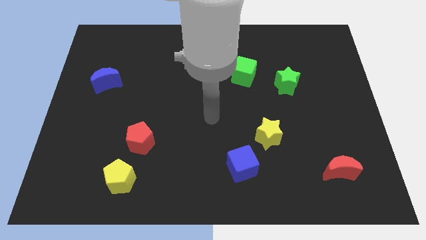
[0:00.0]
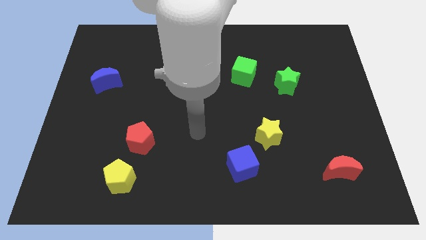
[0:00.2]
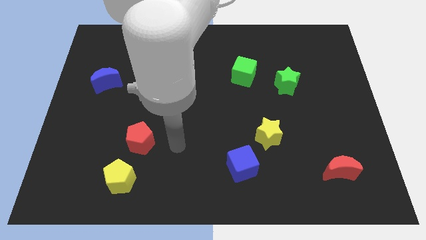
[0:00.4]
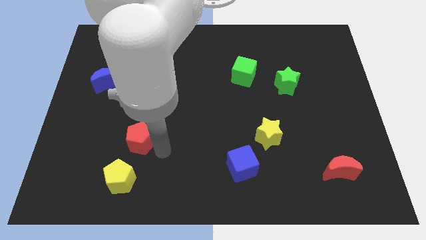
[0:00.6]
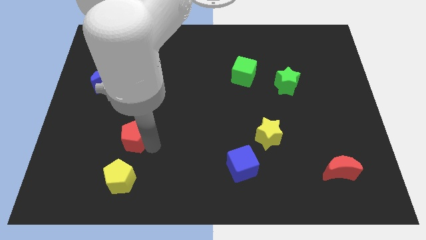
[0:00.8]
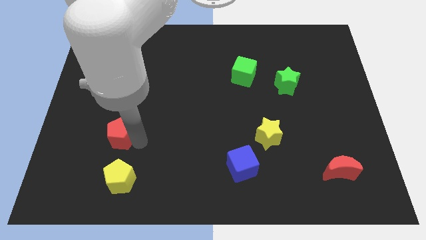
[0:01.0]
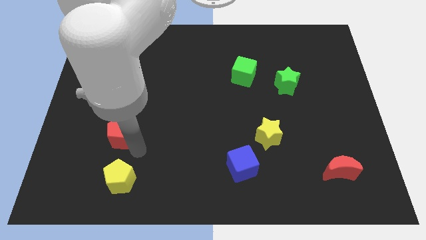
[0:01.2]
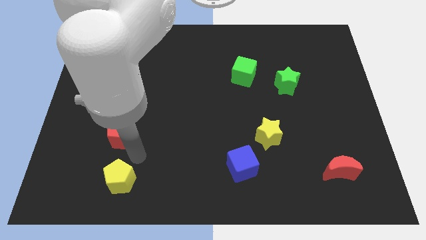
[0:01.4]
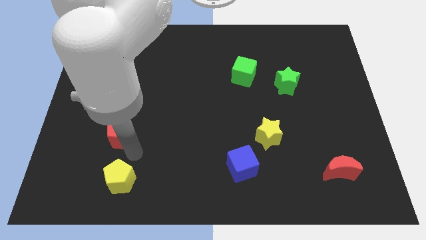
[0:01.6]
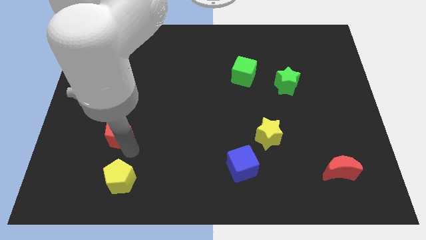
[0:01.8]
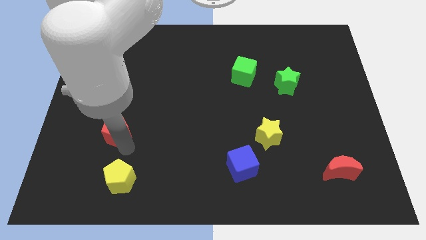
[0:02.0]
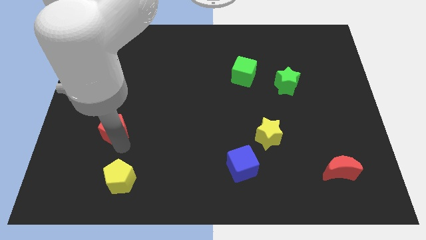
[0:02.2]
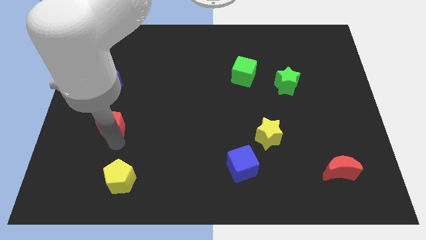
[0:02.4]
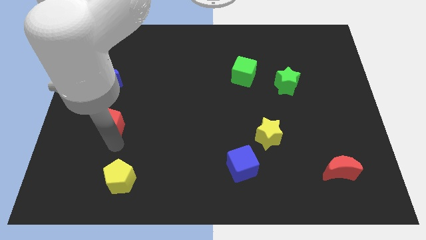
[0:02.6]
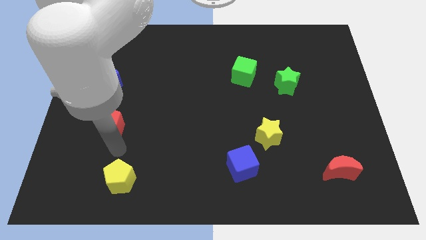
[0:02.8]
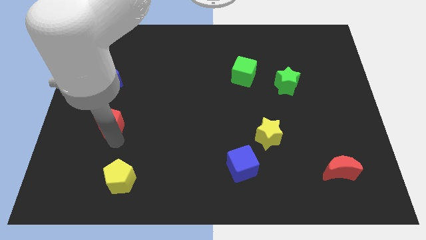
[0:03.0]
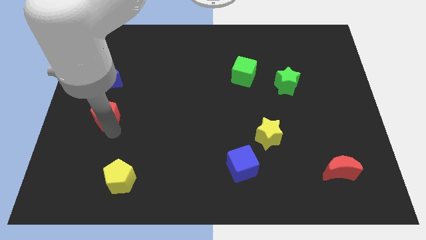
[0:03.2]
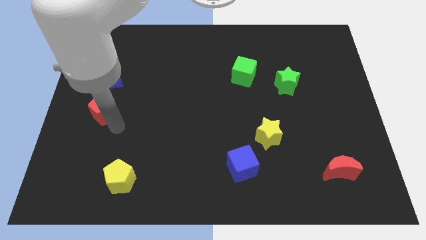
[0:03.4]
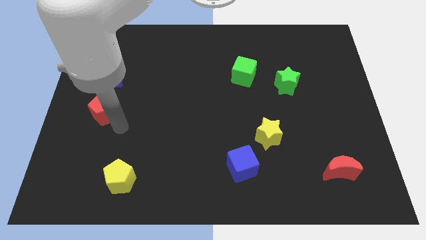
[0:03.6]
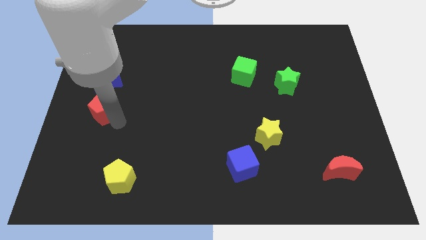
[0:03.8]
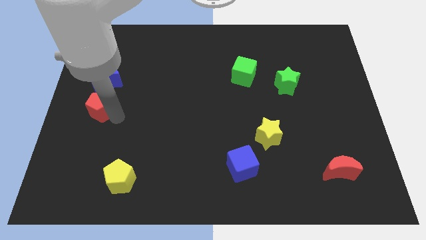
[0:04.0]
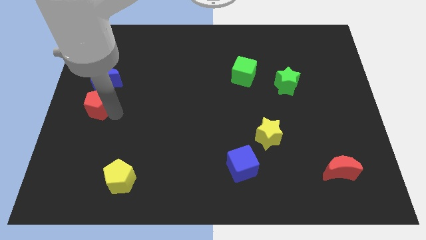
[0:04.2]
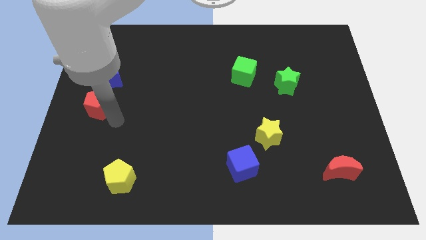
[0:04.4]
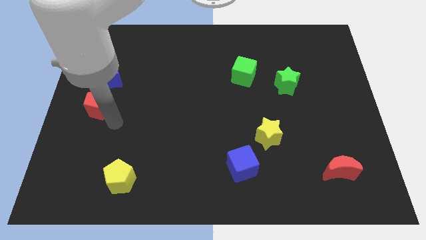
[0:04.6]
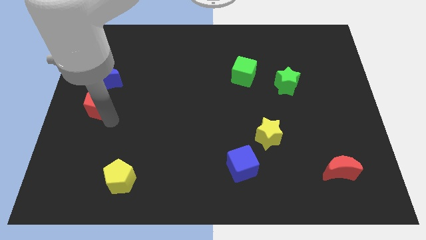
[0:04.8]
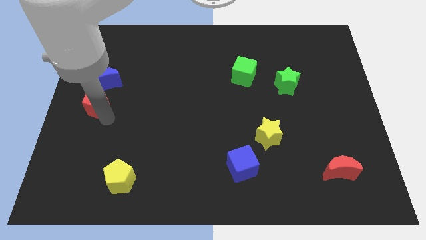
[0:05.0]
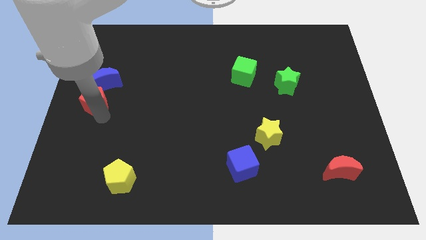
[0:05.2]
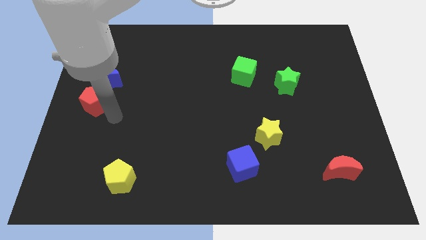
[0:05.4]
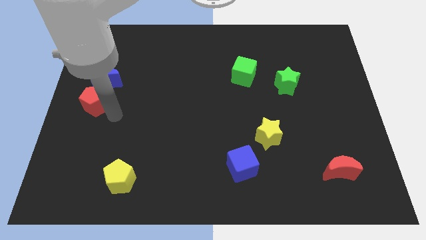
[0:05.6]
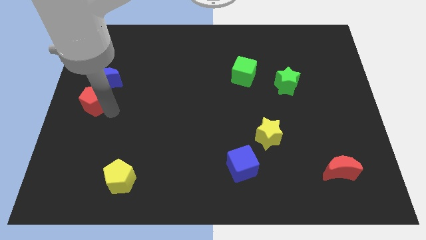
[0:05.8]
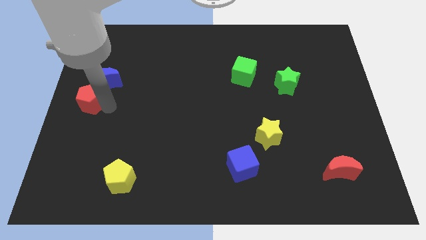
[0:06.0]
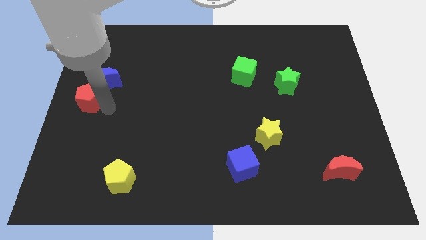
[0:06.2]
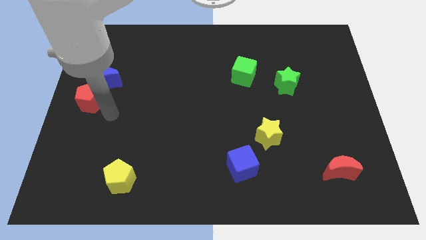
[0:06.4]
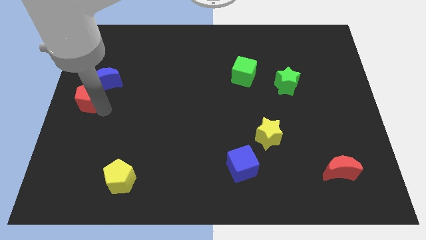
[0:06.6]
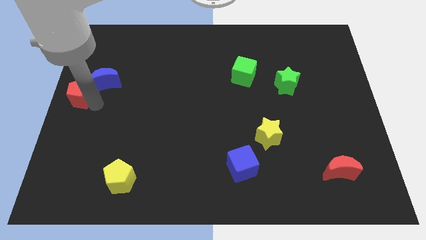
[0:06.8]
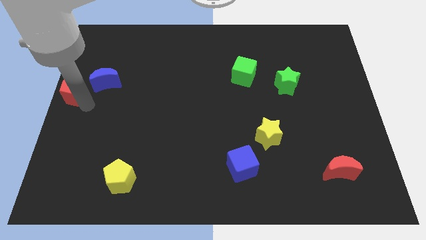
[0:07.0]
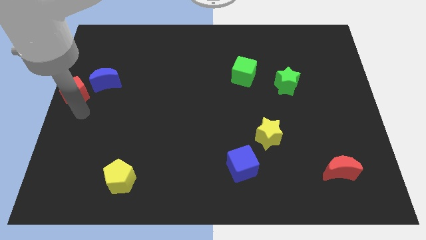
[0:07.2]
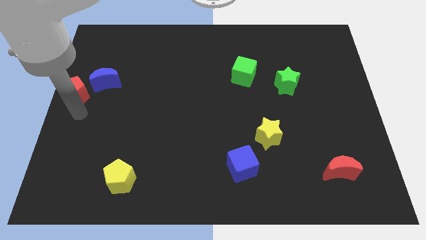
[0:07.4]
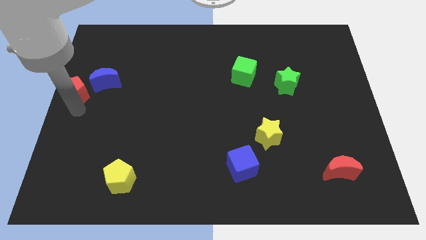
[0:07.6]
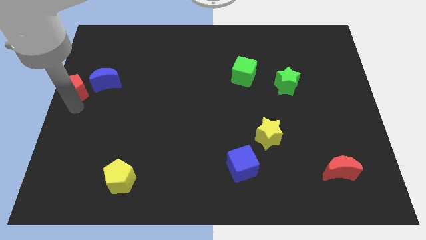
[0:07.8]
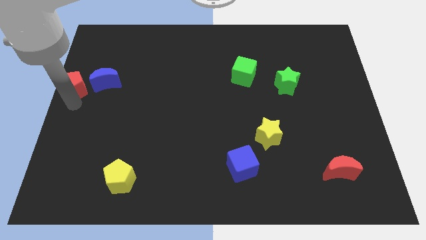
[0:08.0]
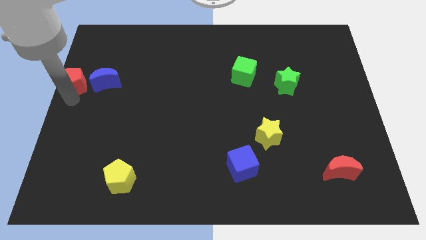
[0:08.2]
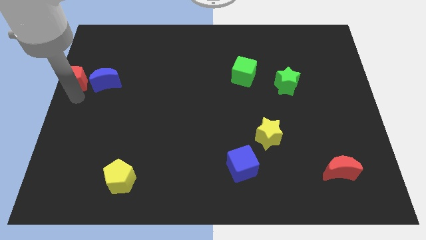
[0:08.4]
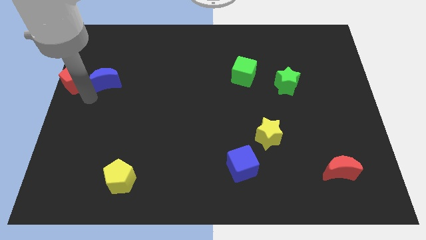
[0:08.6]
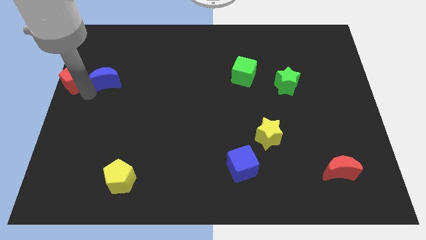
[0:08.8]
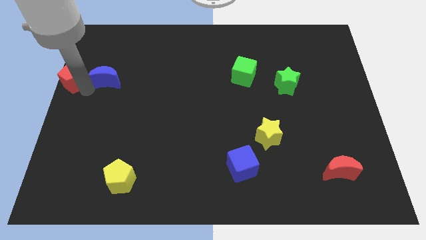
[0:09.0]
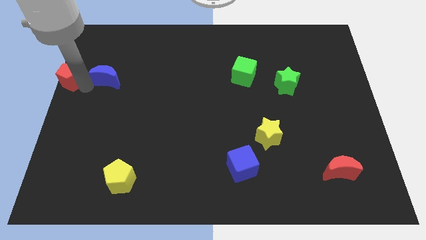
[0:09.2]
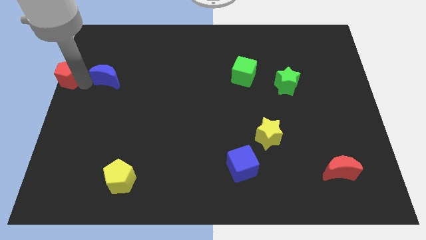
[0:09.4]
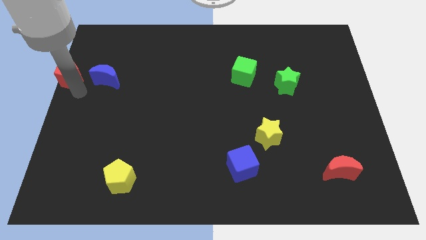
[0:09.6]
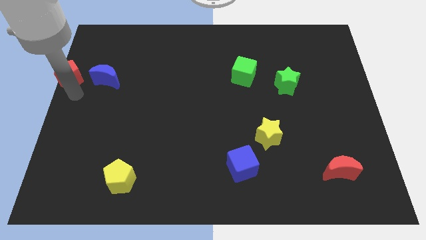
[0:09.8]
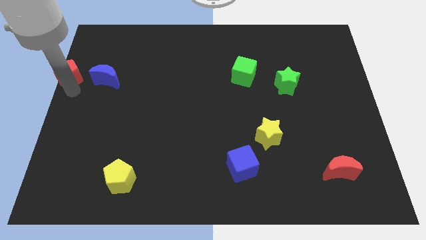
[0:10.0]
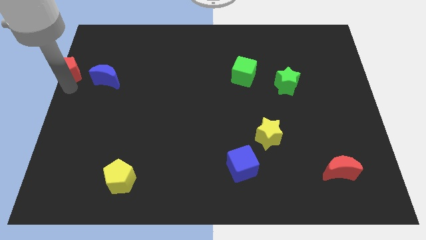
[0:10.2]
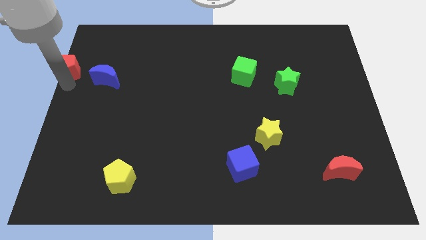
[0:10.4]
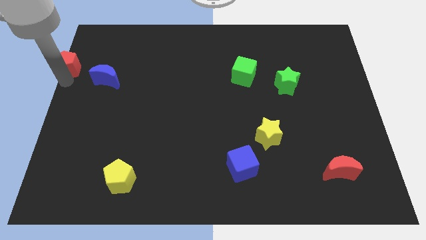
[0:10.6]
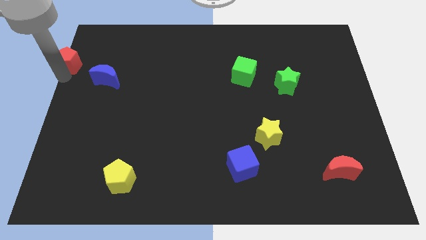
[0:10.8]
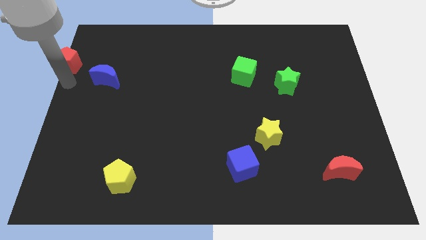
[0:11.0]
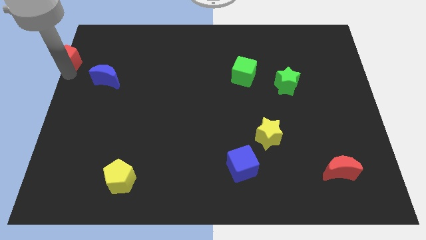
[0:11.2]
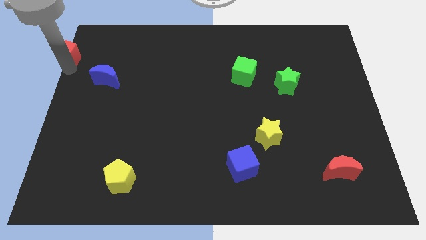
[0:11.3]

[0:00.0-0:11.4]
push the red pentagon to the top left of the board
